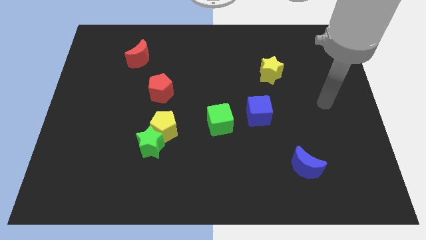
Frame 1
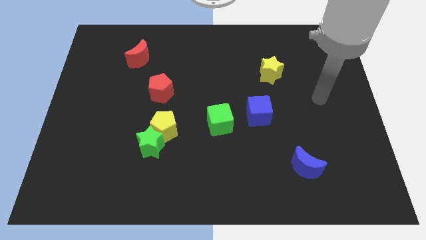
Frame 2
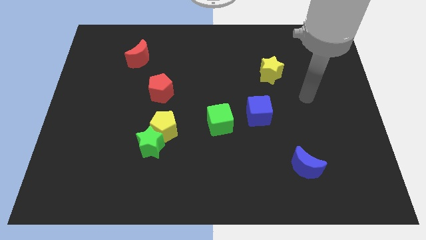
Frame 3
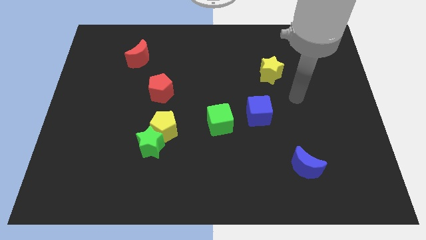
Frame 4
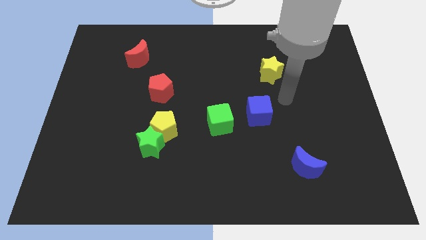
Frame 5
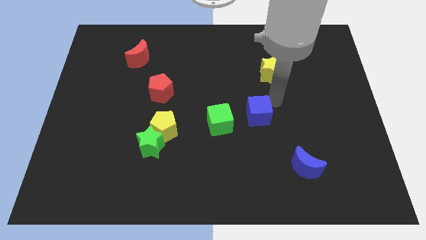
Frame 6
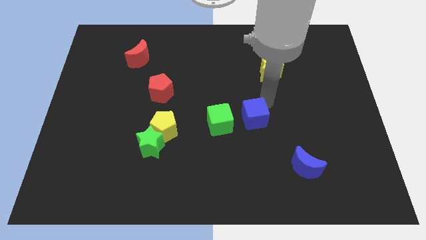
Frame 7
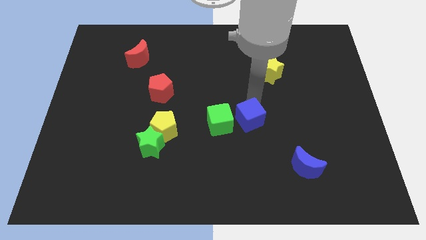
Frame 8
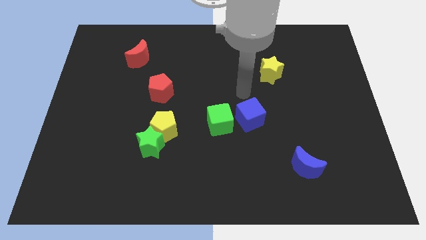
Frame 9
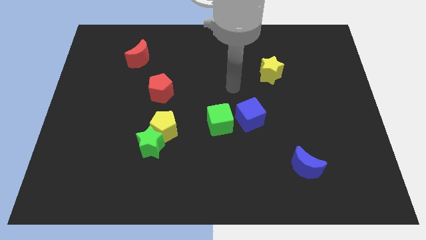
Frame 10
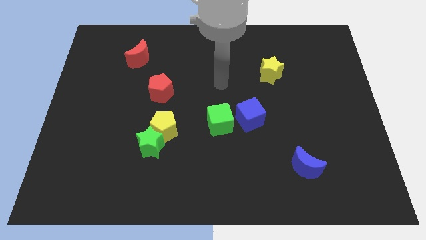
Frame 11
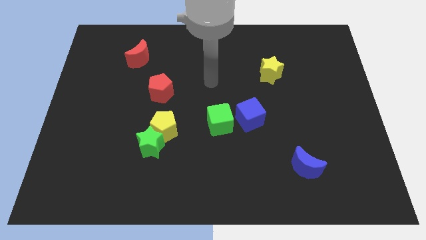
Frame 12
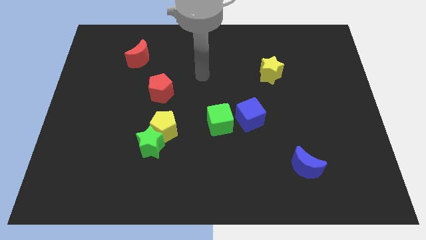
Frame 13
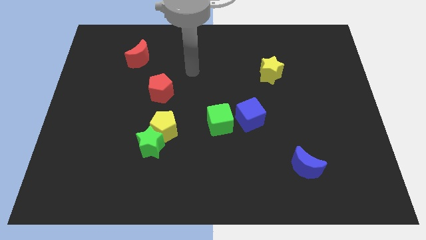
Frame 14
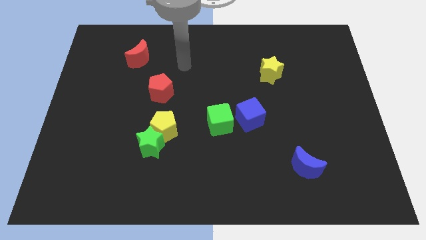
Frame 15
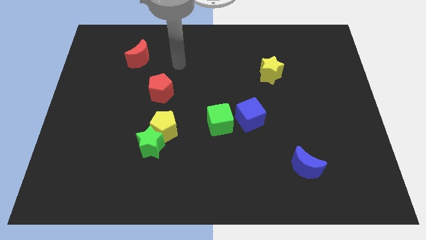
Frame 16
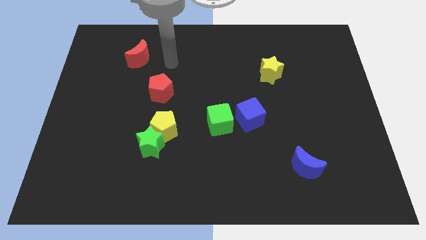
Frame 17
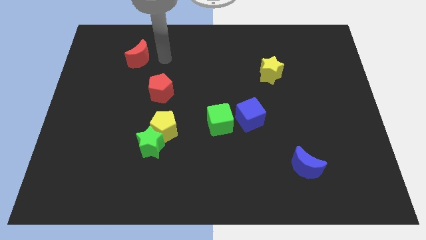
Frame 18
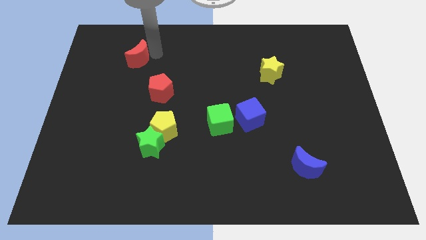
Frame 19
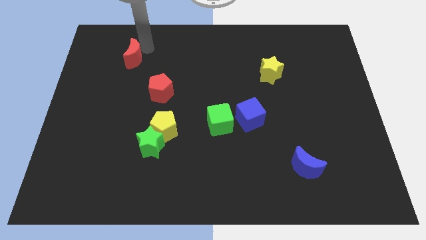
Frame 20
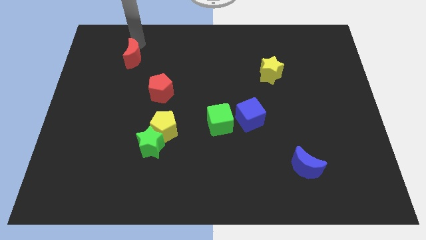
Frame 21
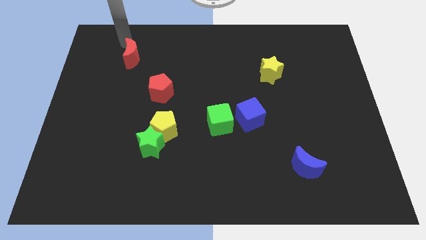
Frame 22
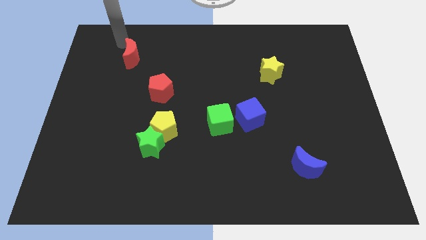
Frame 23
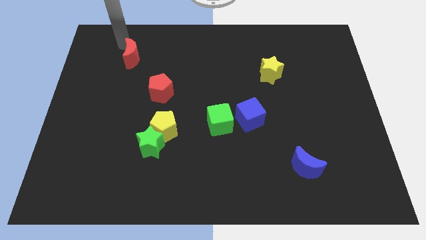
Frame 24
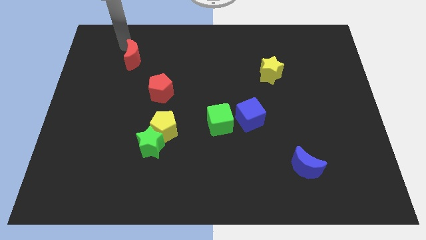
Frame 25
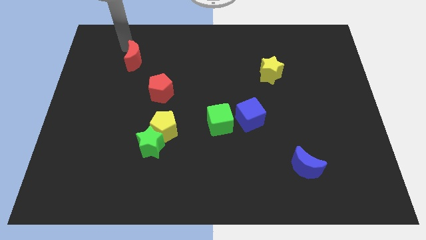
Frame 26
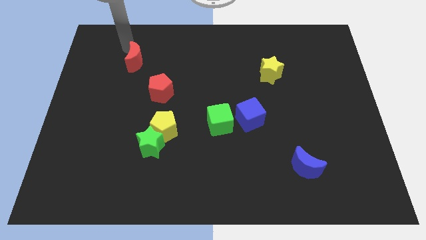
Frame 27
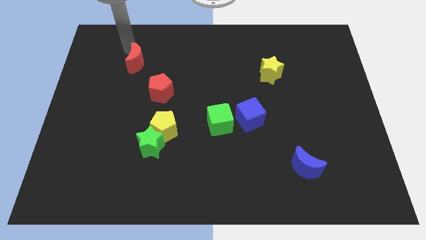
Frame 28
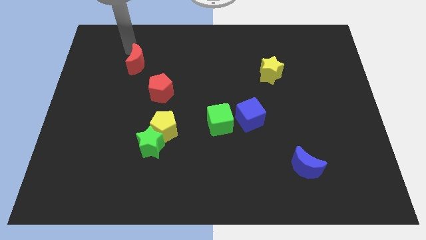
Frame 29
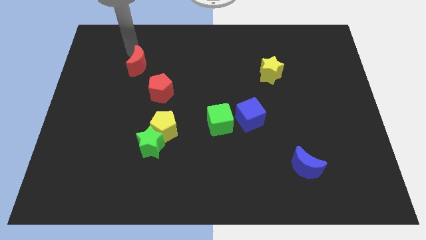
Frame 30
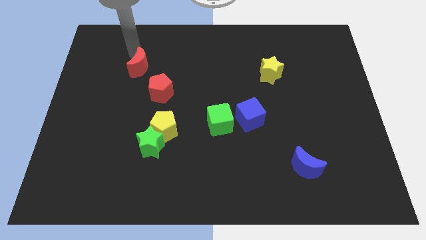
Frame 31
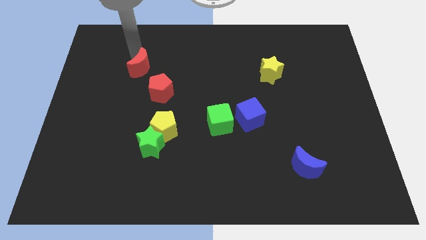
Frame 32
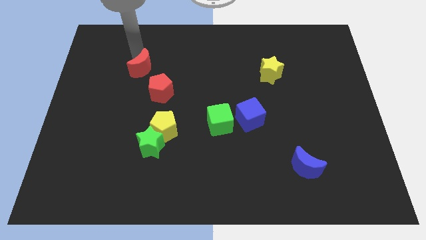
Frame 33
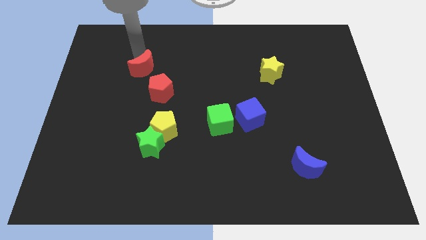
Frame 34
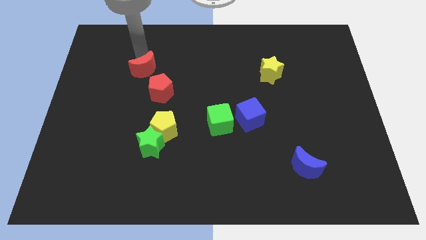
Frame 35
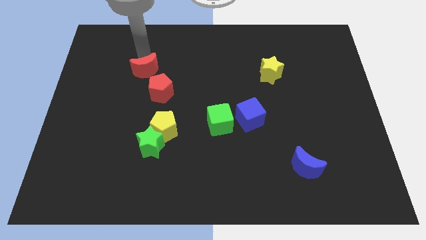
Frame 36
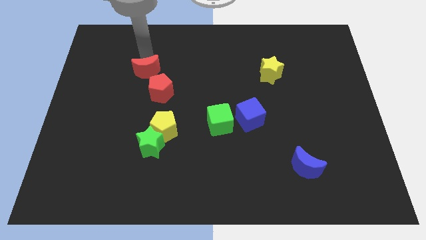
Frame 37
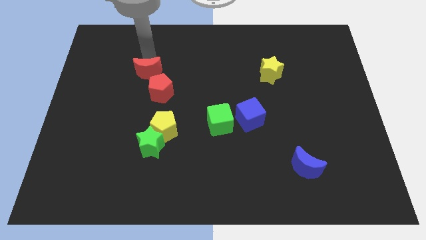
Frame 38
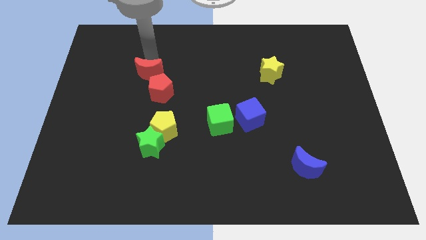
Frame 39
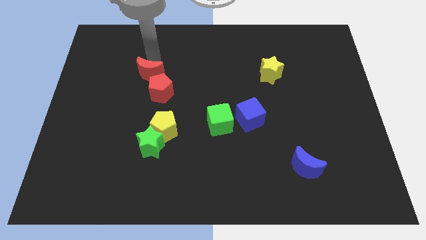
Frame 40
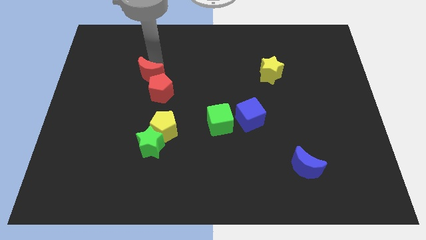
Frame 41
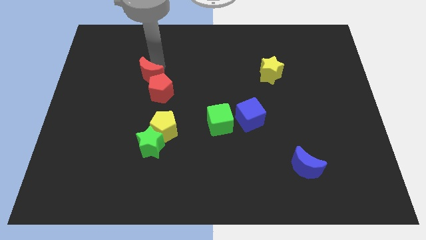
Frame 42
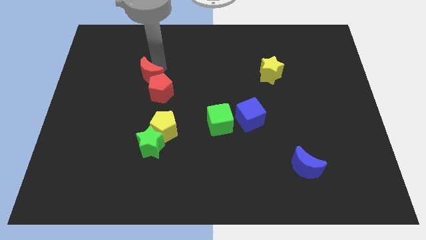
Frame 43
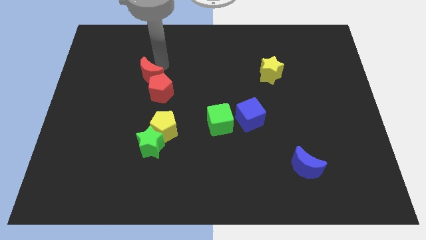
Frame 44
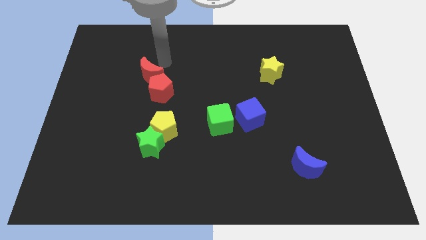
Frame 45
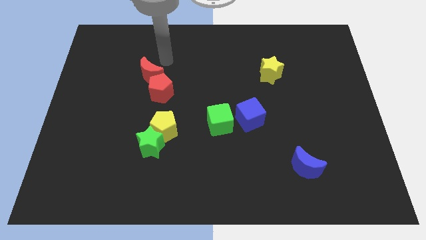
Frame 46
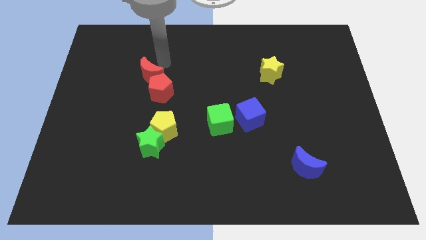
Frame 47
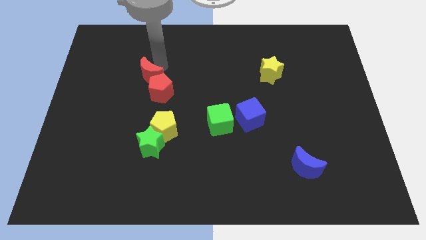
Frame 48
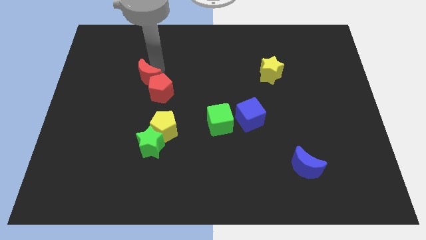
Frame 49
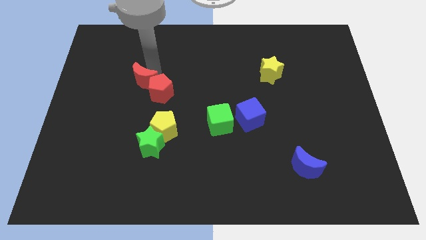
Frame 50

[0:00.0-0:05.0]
move the red moon down a little

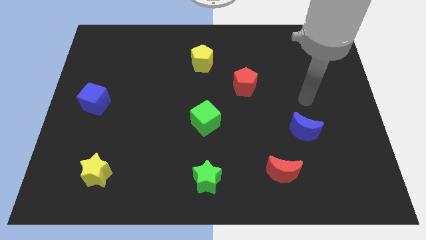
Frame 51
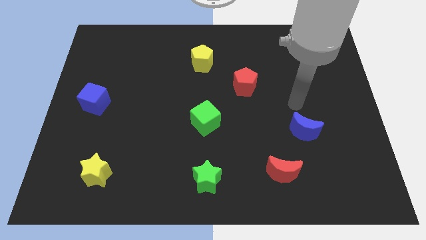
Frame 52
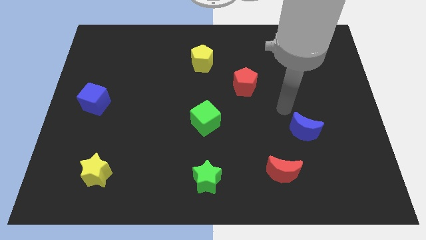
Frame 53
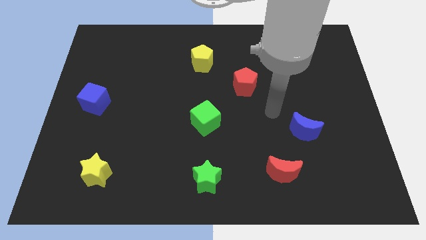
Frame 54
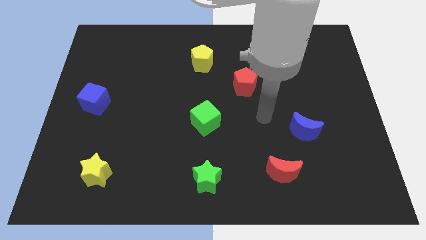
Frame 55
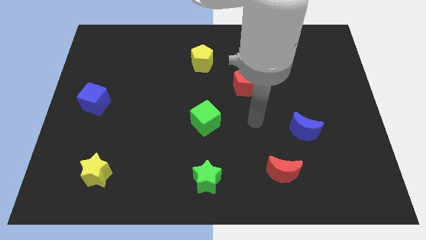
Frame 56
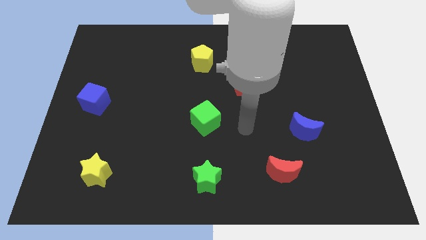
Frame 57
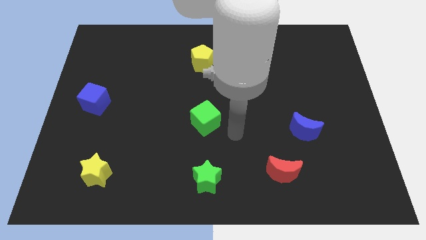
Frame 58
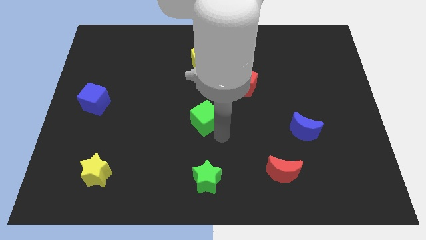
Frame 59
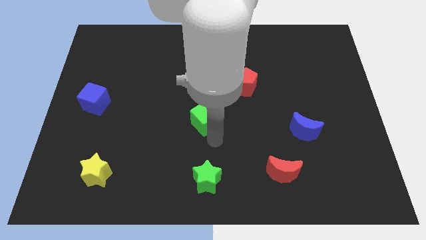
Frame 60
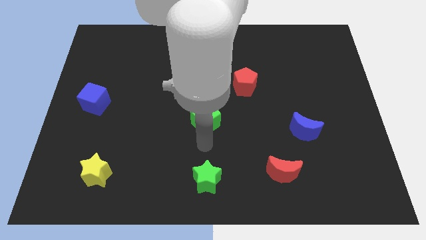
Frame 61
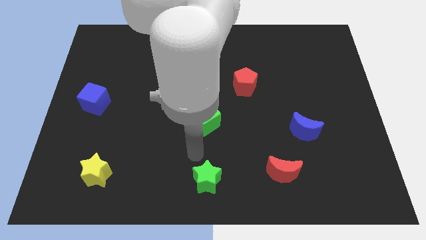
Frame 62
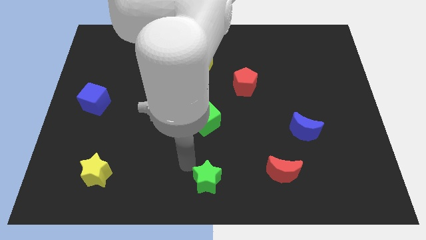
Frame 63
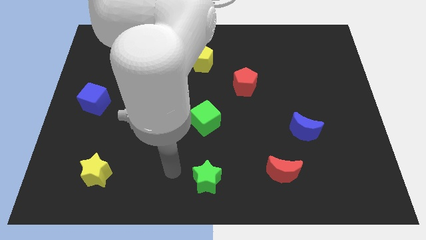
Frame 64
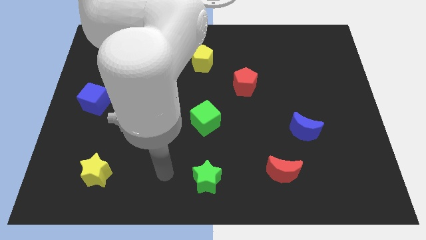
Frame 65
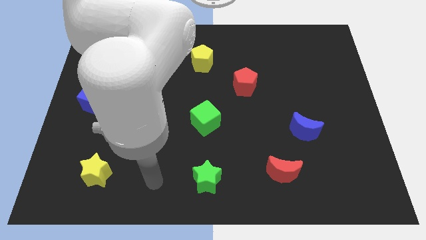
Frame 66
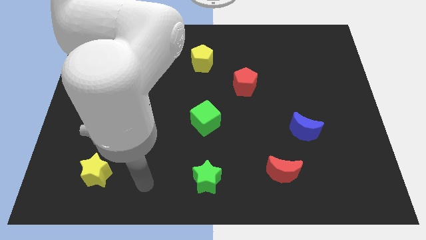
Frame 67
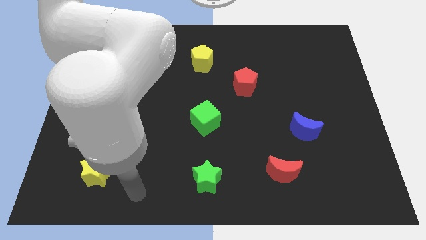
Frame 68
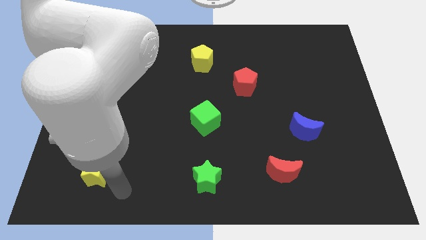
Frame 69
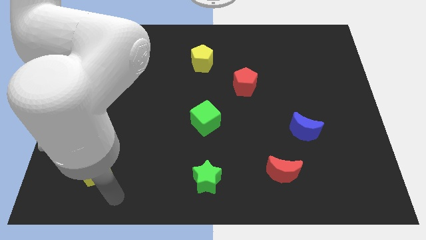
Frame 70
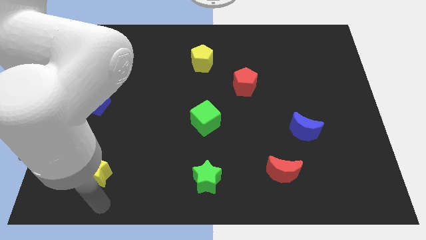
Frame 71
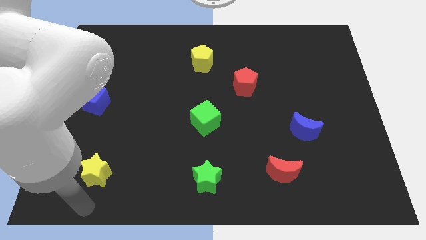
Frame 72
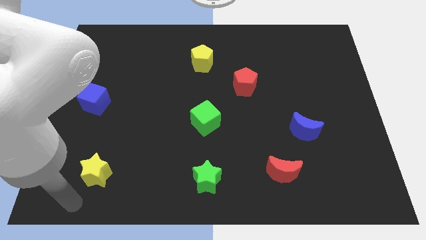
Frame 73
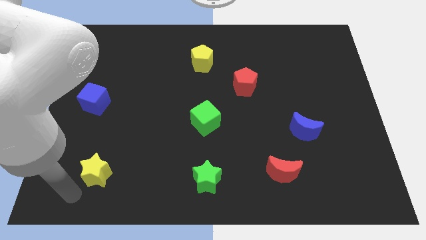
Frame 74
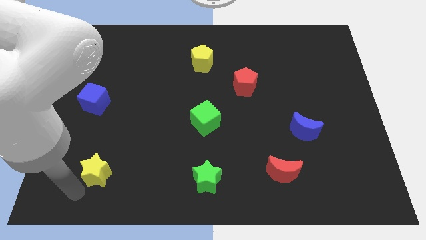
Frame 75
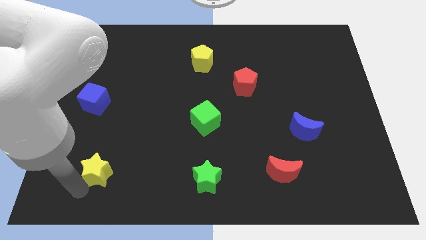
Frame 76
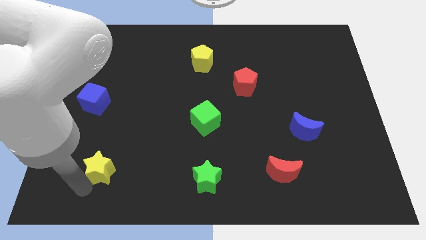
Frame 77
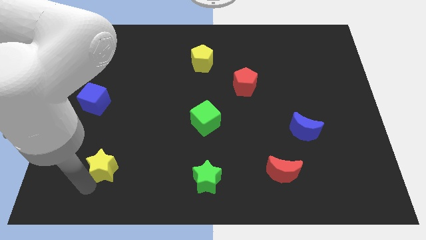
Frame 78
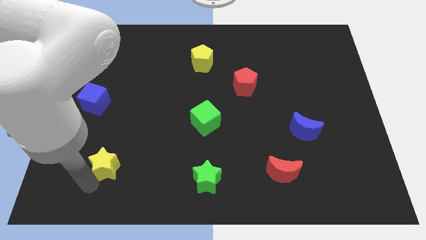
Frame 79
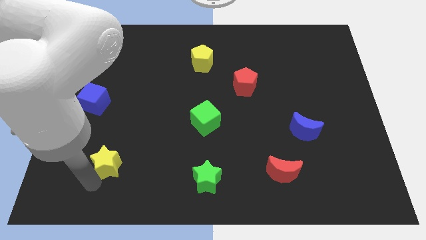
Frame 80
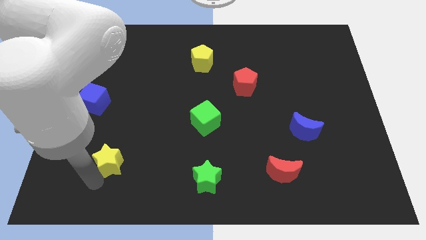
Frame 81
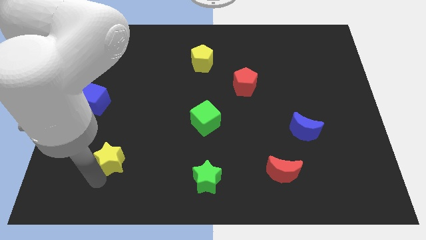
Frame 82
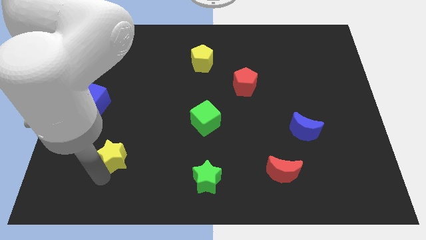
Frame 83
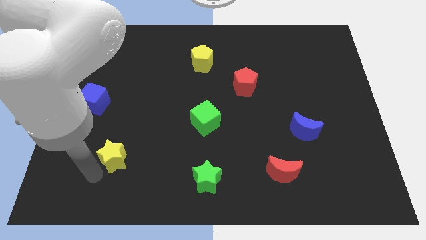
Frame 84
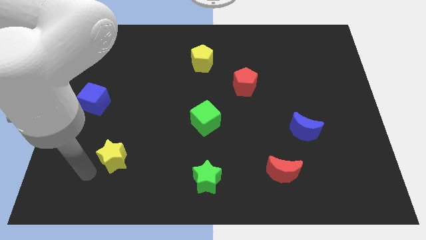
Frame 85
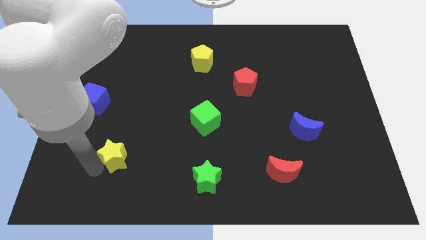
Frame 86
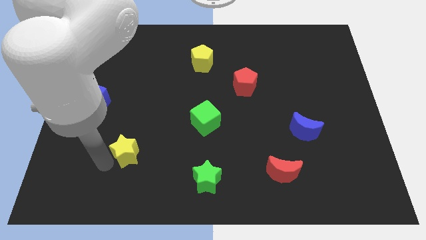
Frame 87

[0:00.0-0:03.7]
push the yellow star upwards and right diagonally slightly
